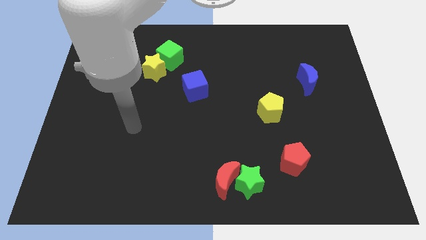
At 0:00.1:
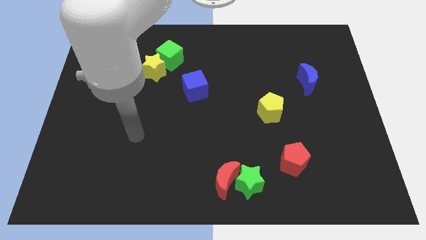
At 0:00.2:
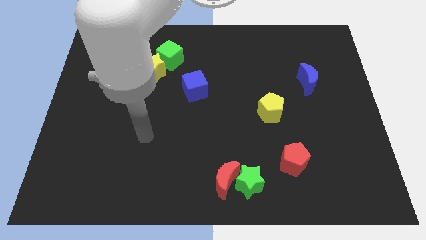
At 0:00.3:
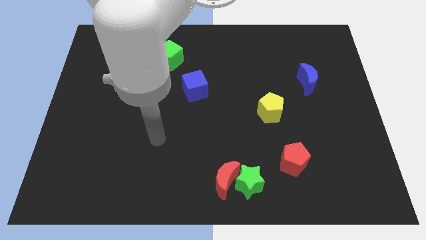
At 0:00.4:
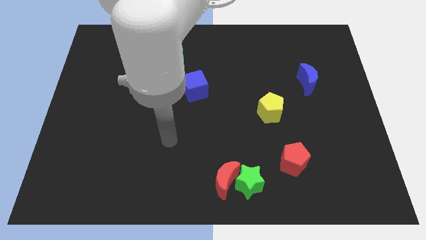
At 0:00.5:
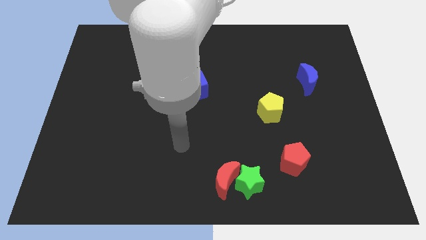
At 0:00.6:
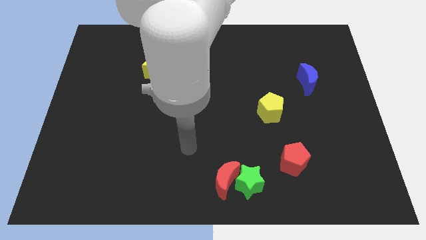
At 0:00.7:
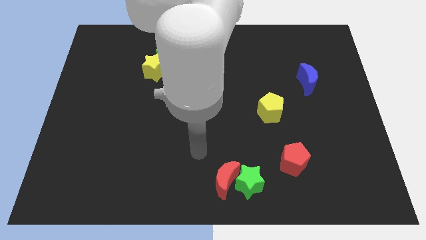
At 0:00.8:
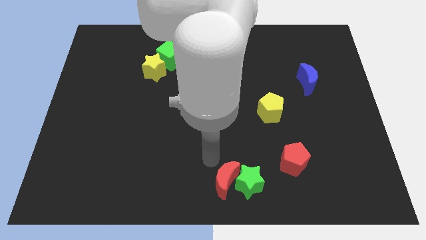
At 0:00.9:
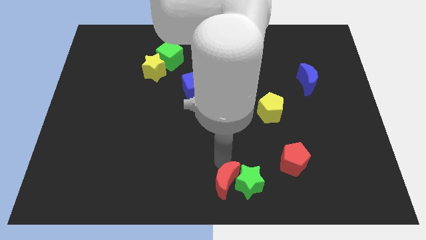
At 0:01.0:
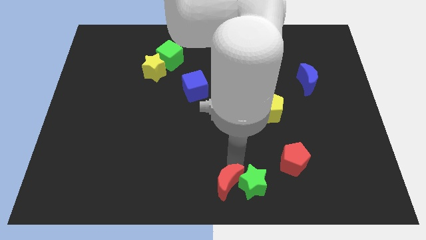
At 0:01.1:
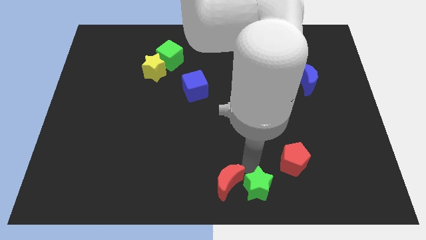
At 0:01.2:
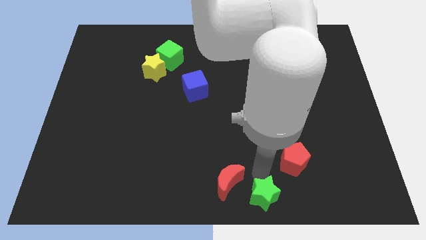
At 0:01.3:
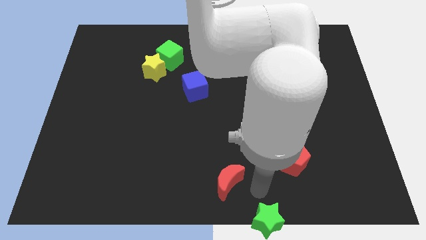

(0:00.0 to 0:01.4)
move the red moon away from the green star

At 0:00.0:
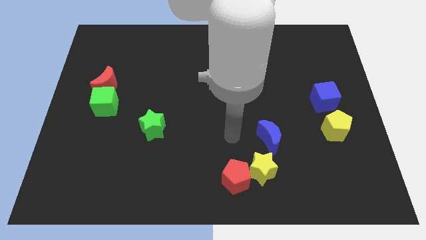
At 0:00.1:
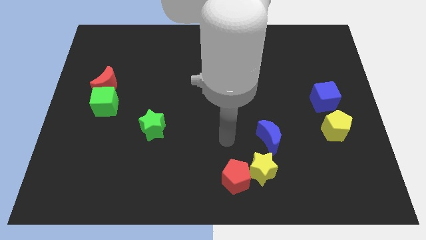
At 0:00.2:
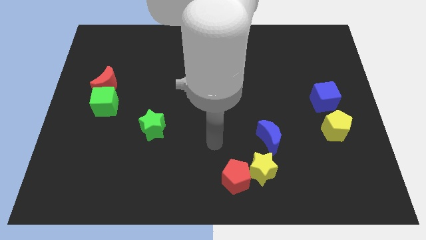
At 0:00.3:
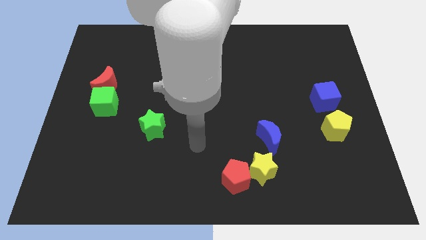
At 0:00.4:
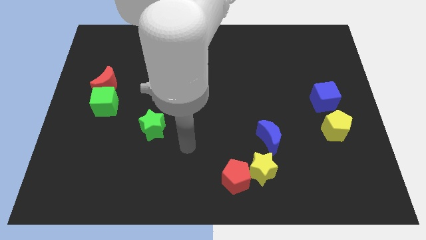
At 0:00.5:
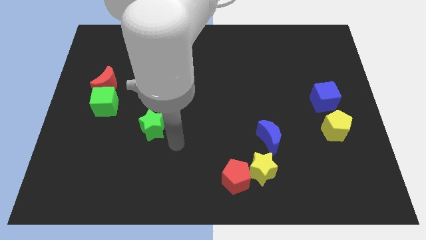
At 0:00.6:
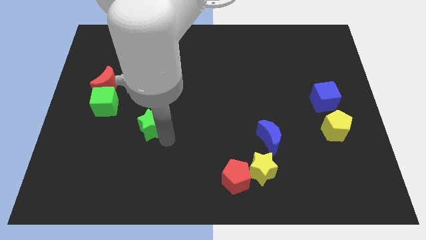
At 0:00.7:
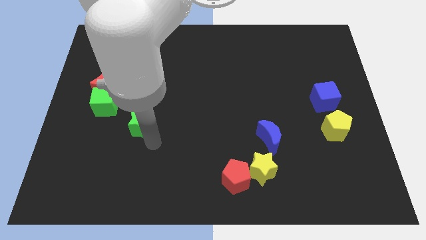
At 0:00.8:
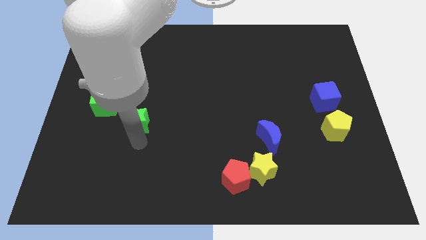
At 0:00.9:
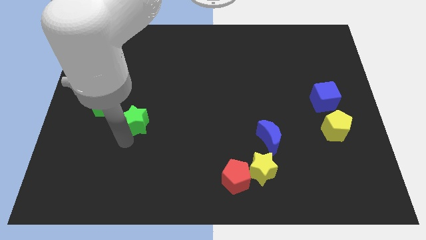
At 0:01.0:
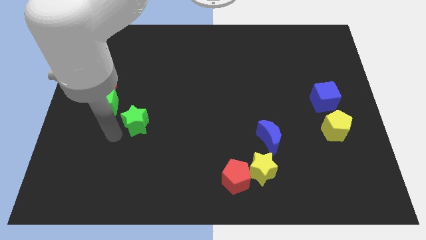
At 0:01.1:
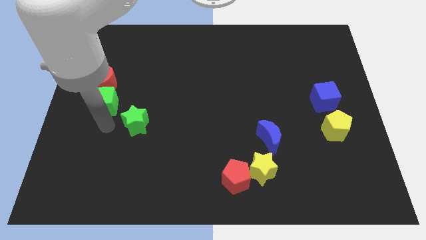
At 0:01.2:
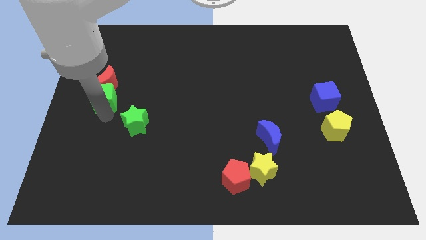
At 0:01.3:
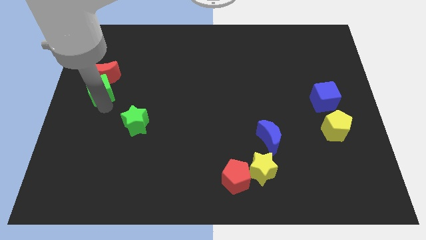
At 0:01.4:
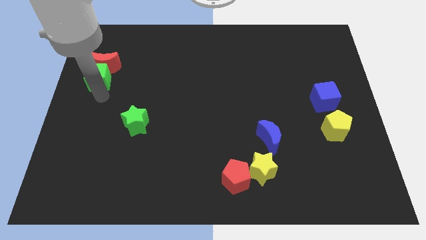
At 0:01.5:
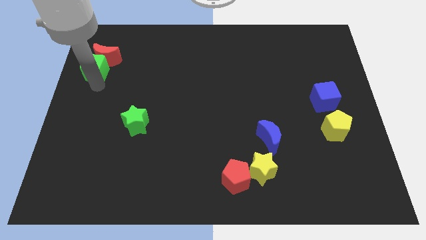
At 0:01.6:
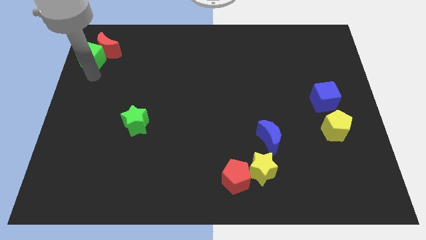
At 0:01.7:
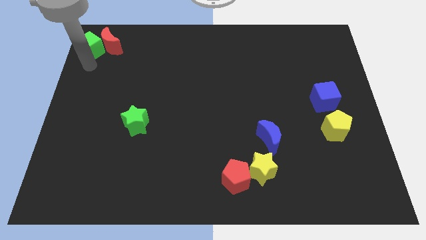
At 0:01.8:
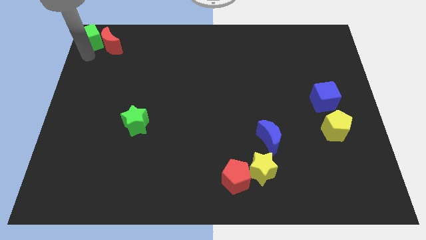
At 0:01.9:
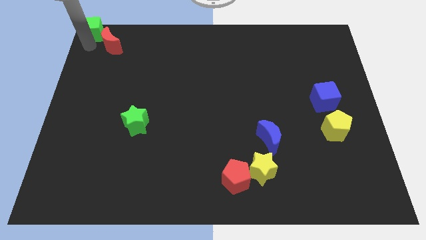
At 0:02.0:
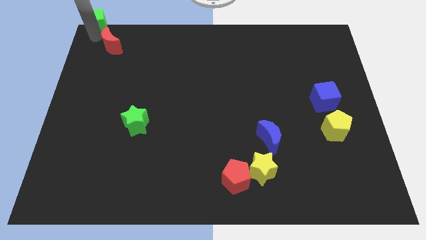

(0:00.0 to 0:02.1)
separate the red moon from the green cube

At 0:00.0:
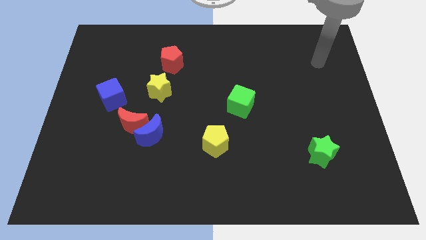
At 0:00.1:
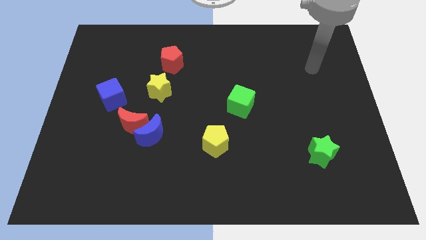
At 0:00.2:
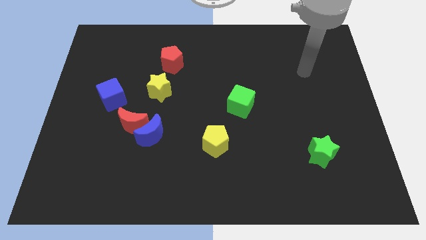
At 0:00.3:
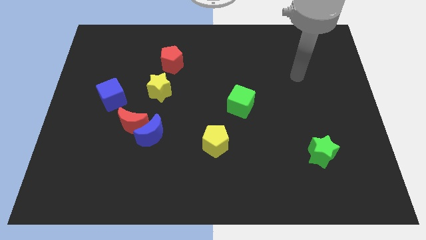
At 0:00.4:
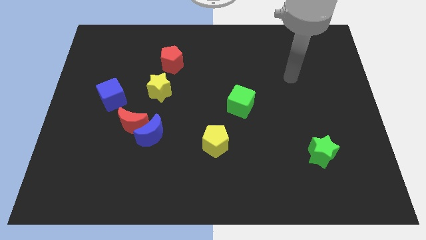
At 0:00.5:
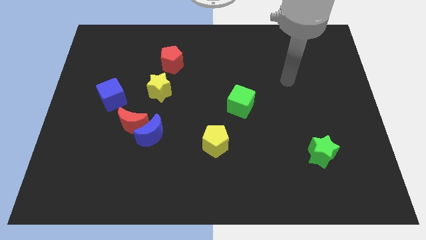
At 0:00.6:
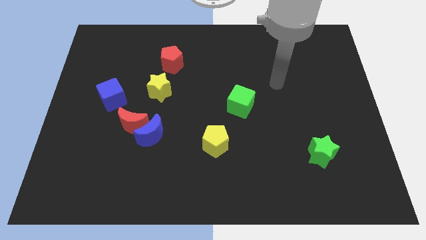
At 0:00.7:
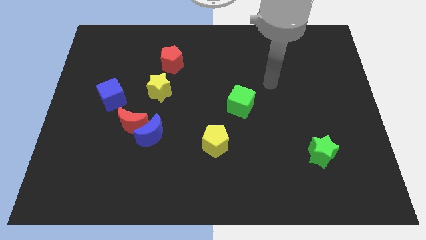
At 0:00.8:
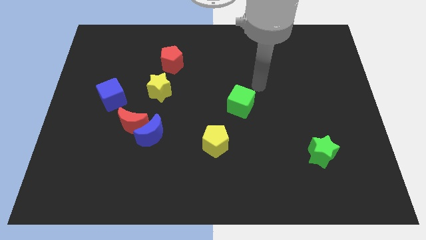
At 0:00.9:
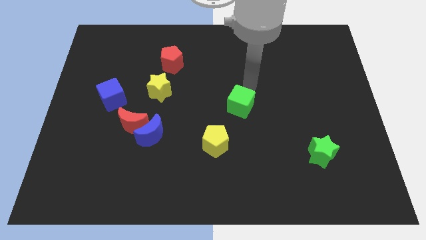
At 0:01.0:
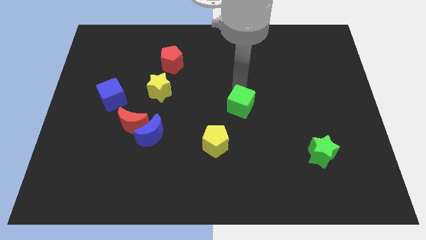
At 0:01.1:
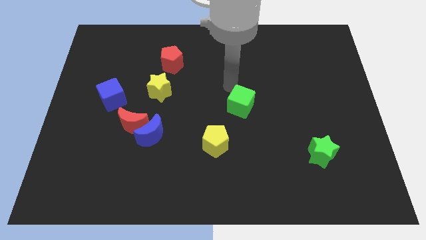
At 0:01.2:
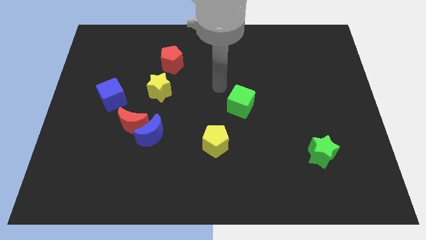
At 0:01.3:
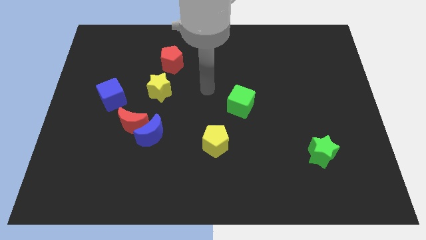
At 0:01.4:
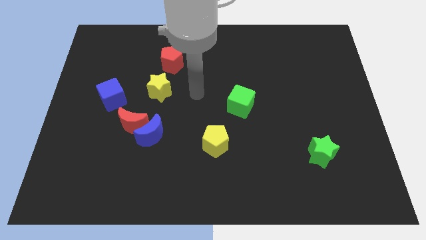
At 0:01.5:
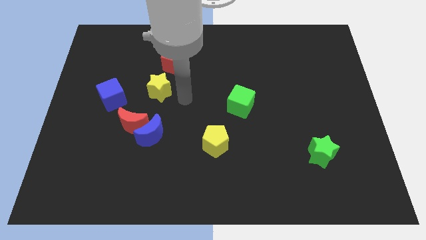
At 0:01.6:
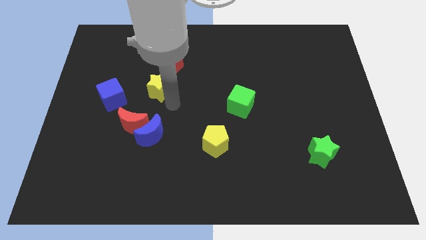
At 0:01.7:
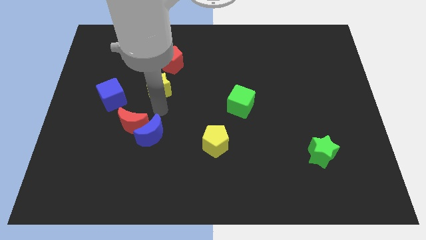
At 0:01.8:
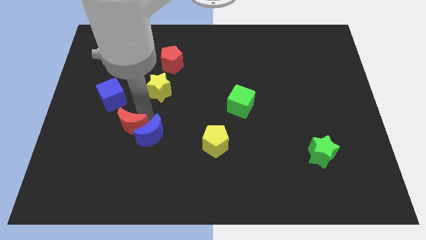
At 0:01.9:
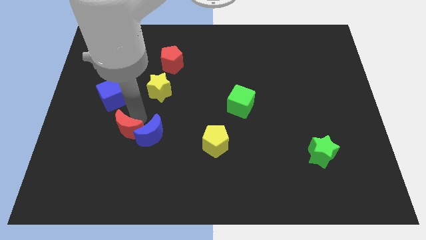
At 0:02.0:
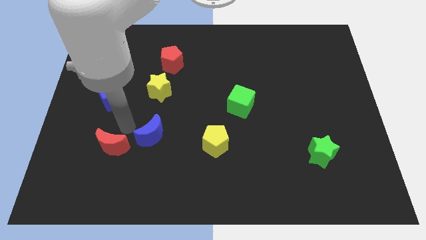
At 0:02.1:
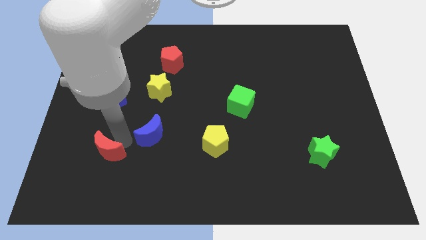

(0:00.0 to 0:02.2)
pull the blue moon apart from the red moon

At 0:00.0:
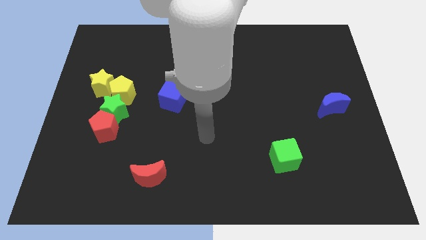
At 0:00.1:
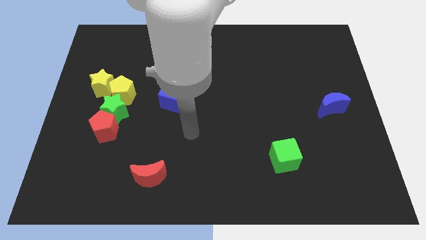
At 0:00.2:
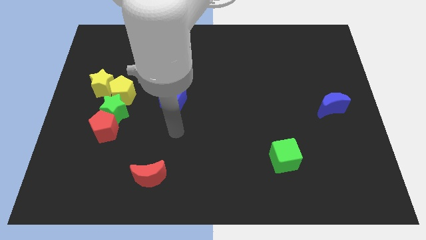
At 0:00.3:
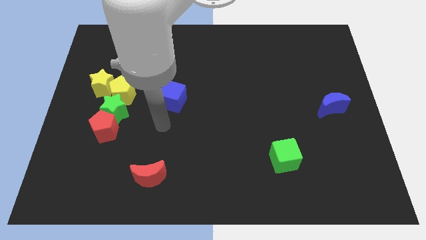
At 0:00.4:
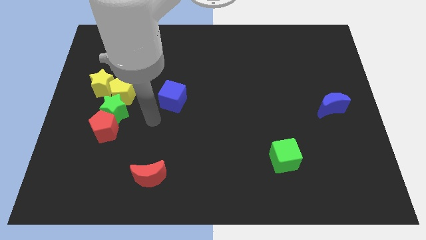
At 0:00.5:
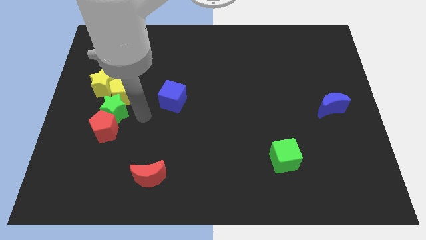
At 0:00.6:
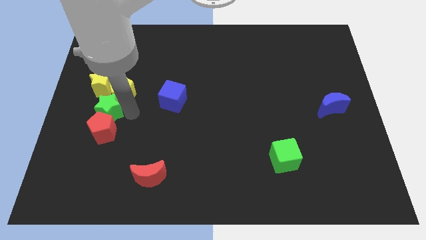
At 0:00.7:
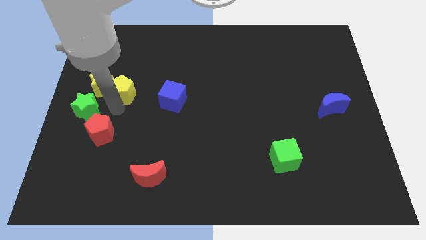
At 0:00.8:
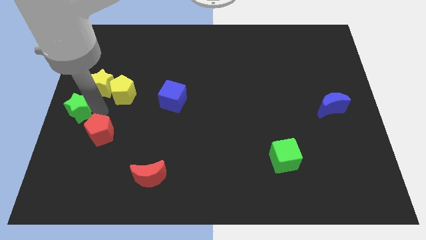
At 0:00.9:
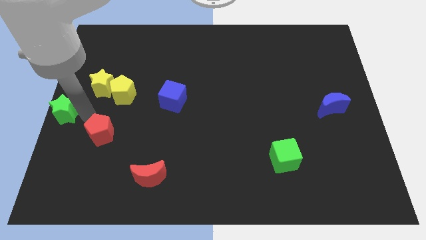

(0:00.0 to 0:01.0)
move the red pentagon away from the green star

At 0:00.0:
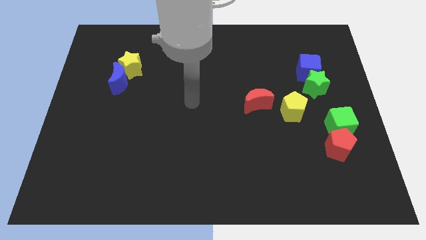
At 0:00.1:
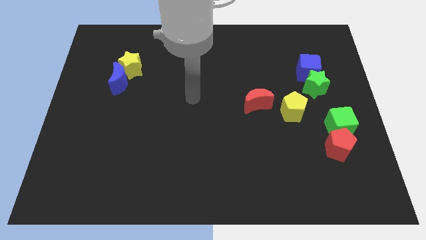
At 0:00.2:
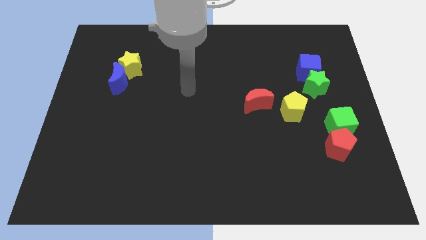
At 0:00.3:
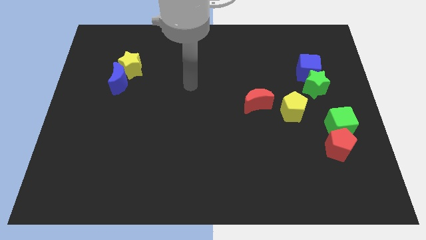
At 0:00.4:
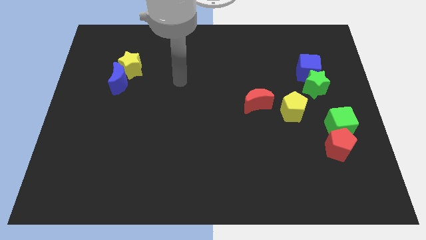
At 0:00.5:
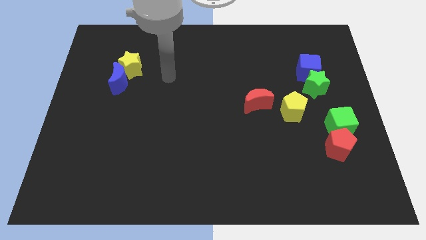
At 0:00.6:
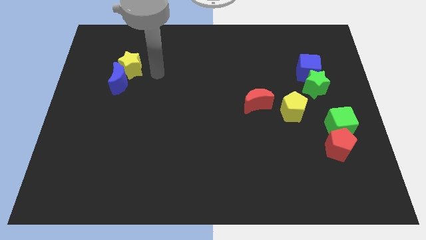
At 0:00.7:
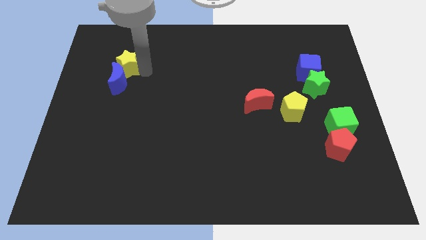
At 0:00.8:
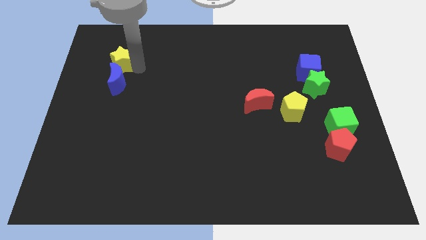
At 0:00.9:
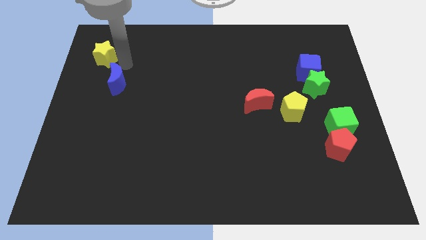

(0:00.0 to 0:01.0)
pull the blue moon apart from the yellow star

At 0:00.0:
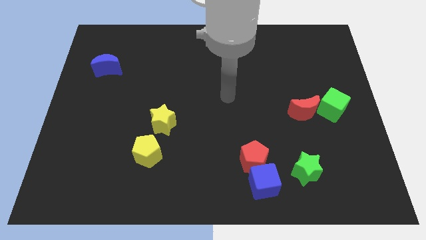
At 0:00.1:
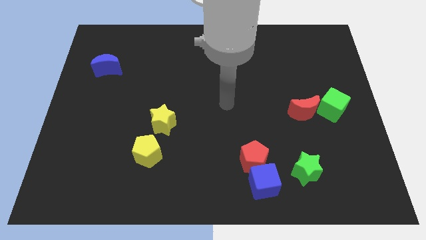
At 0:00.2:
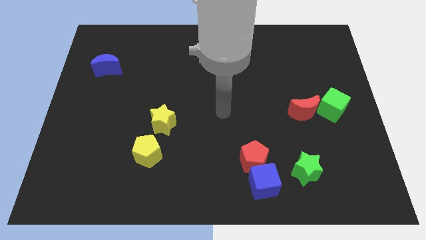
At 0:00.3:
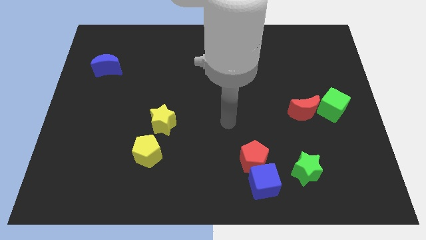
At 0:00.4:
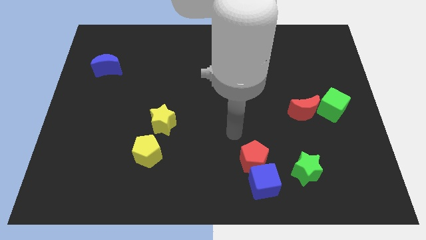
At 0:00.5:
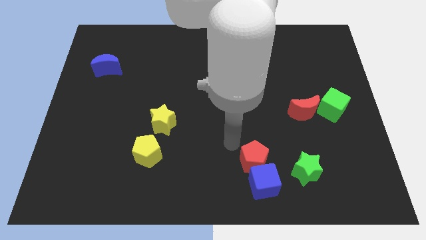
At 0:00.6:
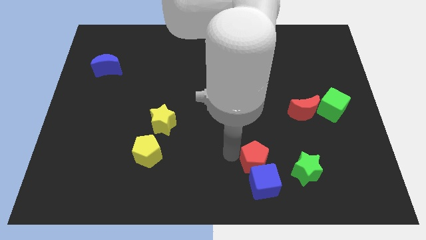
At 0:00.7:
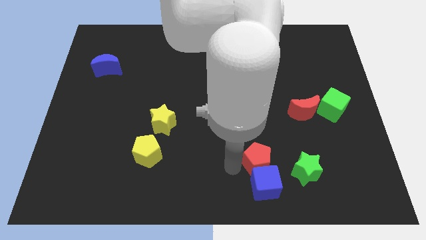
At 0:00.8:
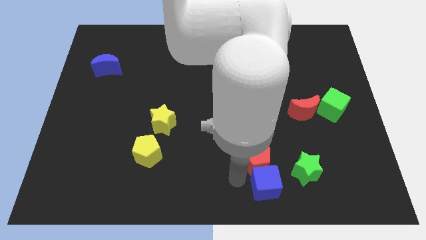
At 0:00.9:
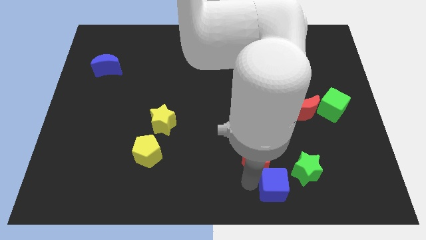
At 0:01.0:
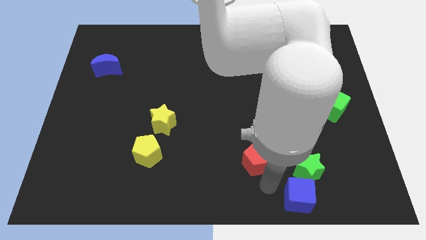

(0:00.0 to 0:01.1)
move the red pentagon away from the blue cube

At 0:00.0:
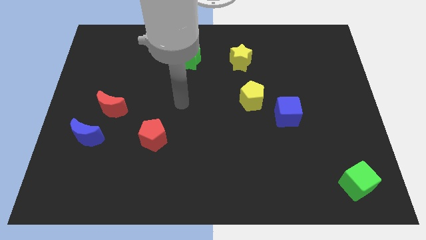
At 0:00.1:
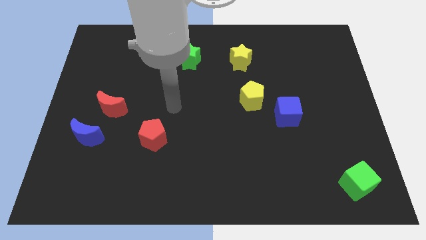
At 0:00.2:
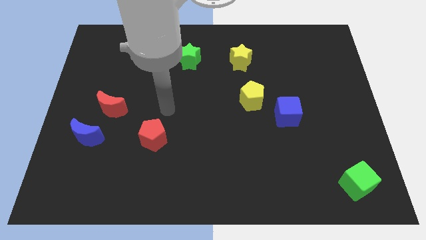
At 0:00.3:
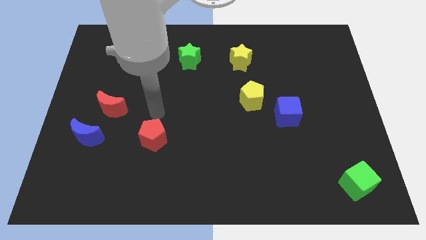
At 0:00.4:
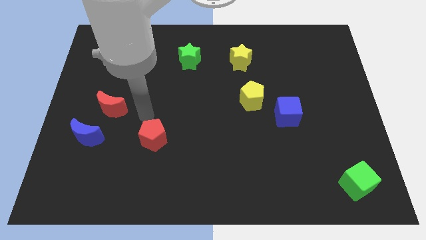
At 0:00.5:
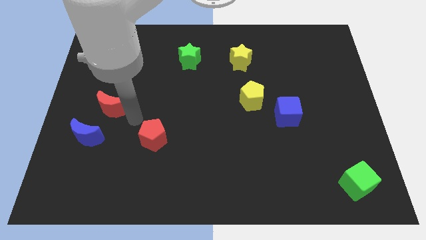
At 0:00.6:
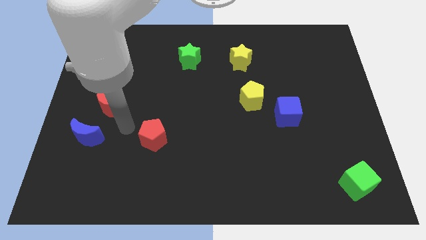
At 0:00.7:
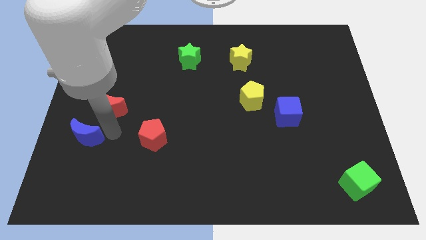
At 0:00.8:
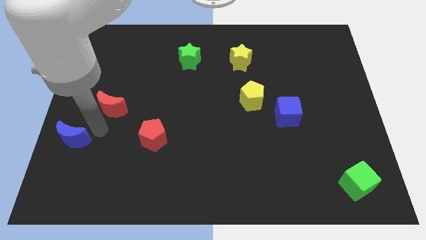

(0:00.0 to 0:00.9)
separate the red moon from the blue moon
